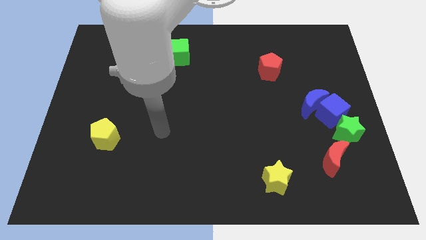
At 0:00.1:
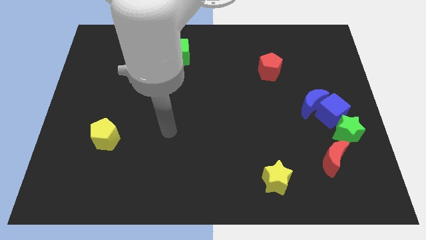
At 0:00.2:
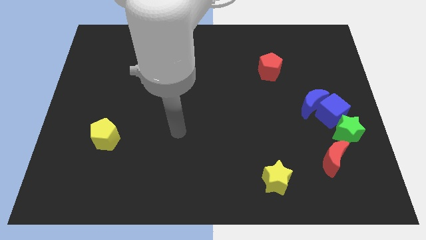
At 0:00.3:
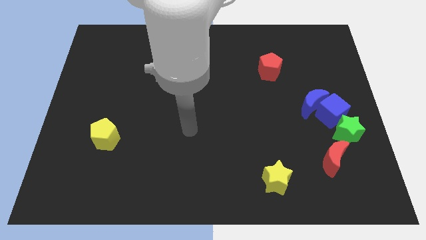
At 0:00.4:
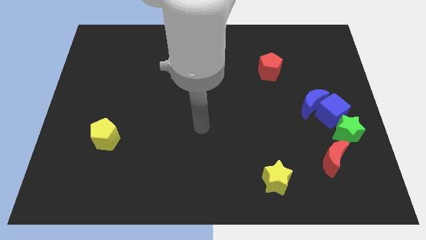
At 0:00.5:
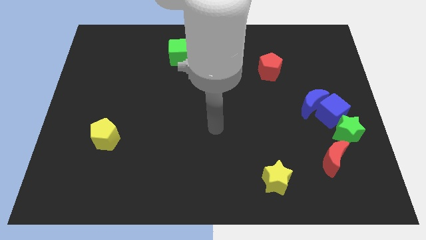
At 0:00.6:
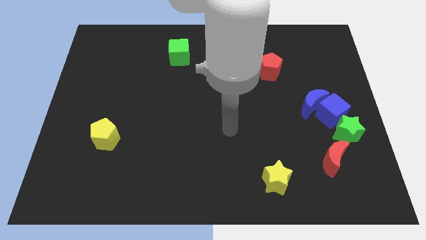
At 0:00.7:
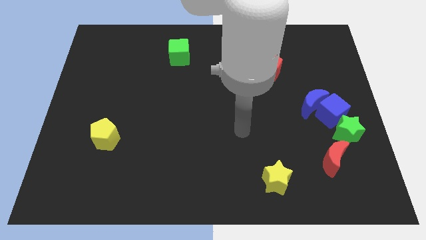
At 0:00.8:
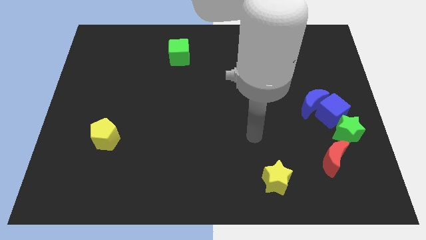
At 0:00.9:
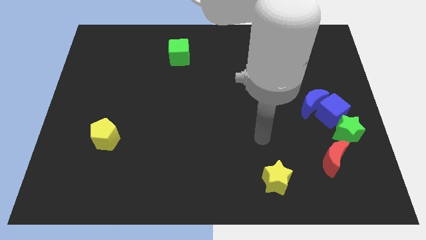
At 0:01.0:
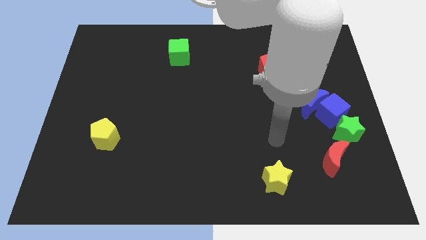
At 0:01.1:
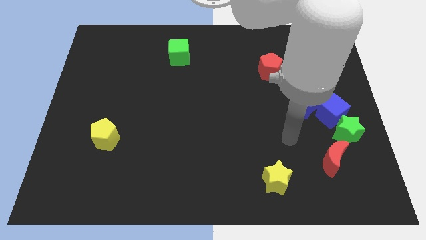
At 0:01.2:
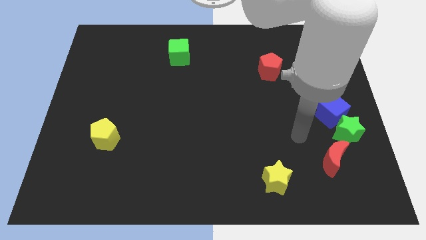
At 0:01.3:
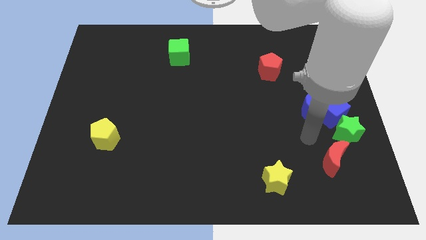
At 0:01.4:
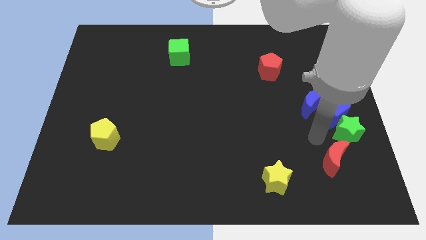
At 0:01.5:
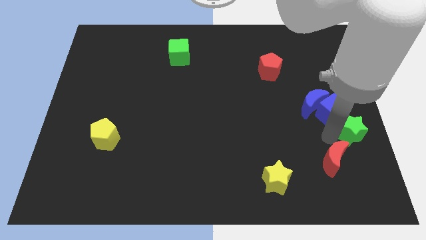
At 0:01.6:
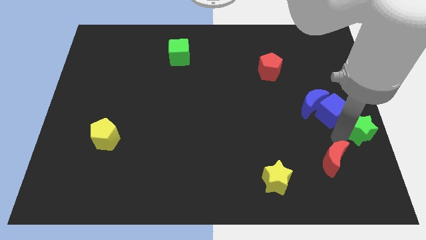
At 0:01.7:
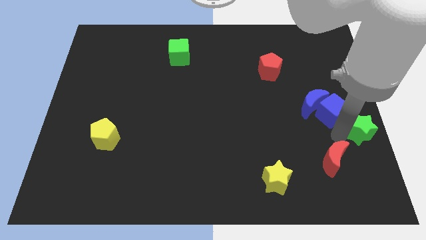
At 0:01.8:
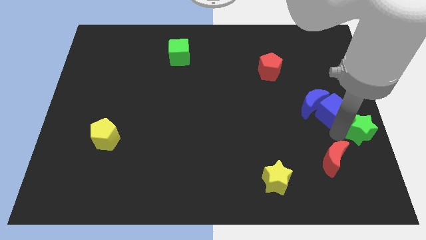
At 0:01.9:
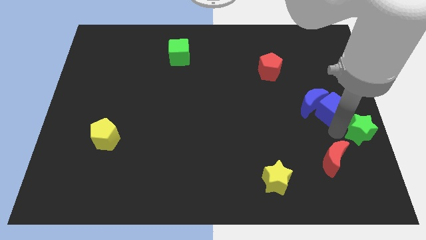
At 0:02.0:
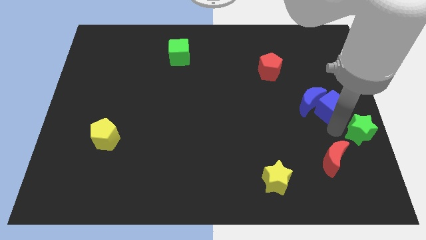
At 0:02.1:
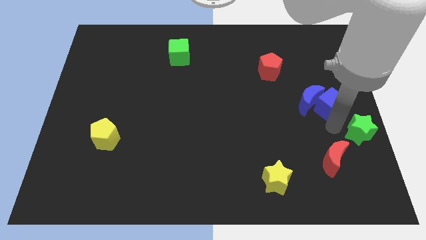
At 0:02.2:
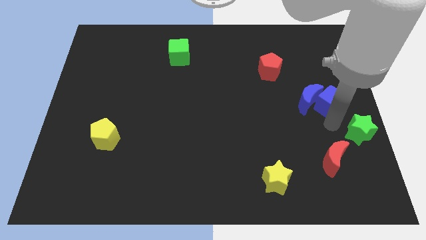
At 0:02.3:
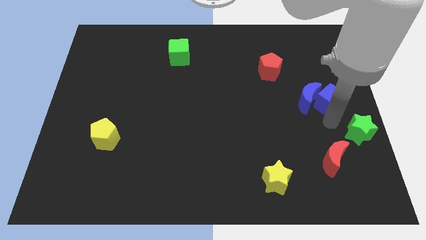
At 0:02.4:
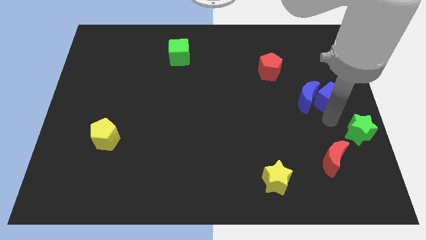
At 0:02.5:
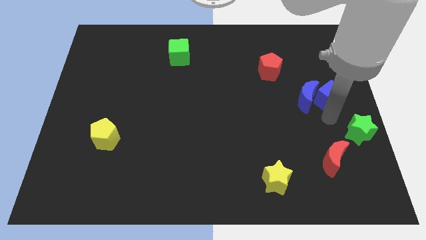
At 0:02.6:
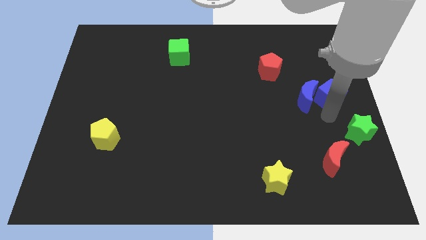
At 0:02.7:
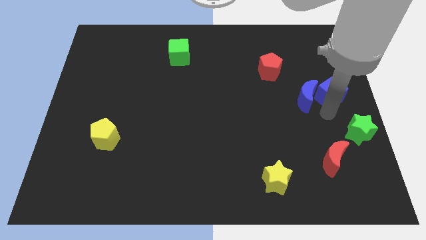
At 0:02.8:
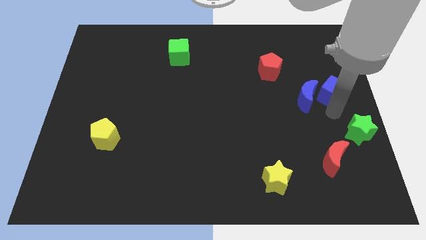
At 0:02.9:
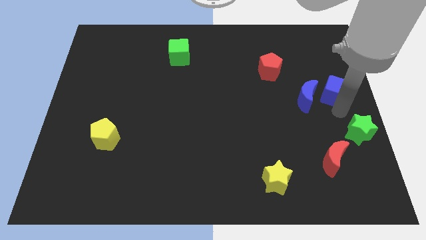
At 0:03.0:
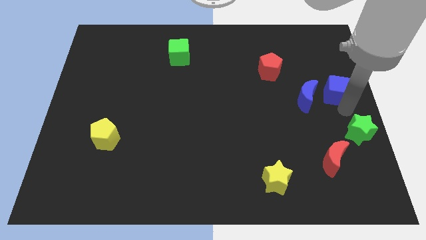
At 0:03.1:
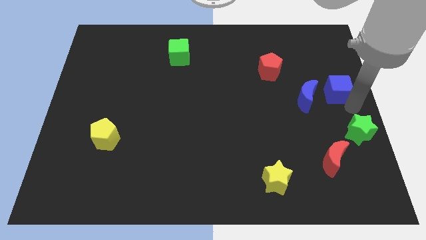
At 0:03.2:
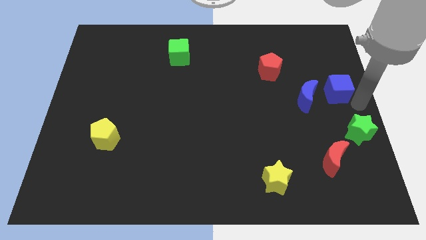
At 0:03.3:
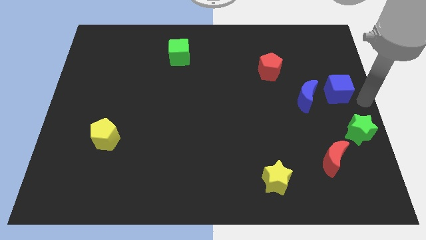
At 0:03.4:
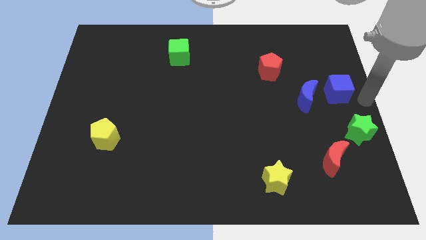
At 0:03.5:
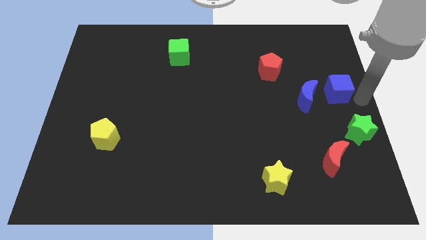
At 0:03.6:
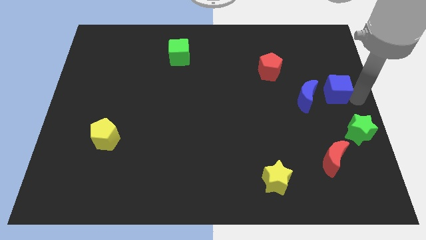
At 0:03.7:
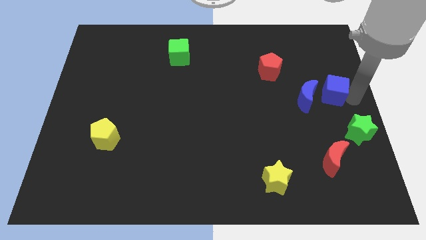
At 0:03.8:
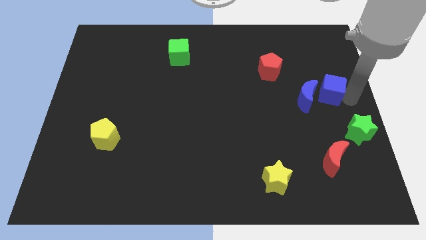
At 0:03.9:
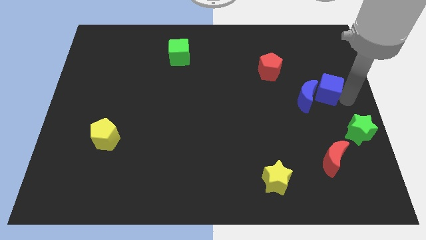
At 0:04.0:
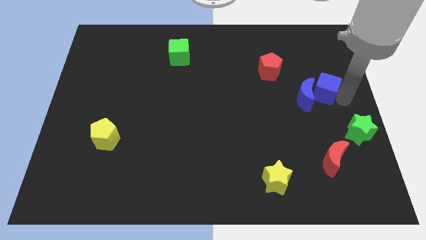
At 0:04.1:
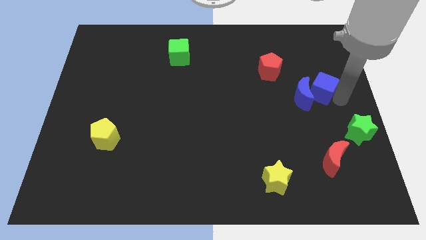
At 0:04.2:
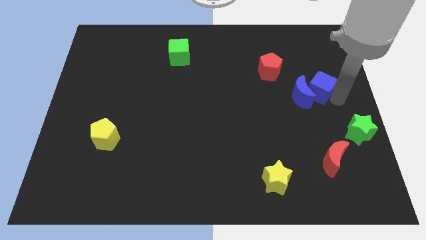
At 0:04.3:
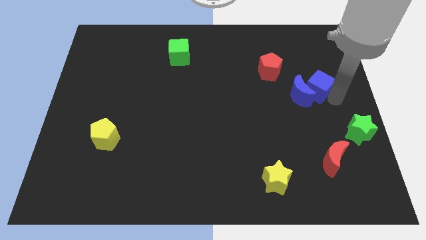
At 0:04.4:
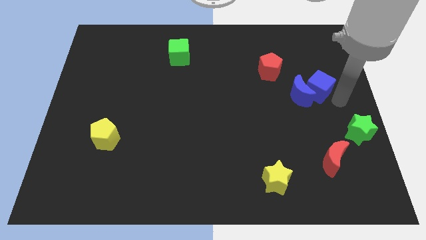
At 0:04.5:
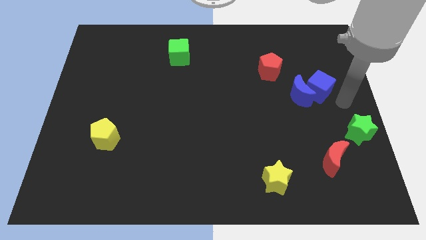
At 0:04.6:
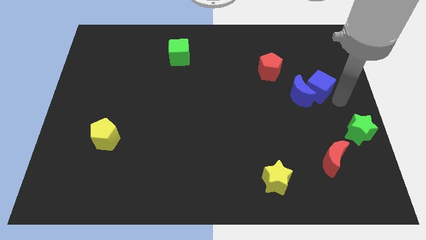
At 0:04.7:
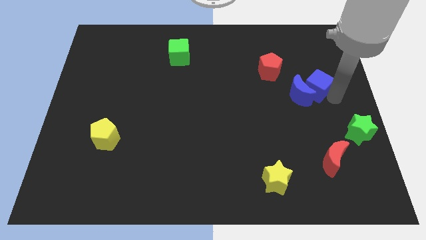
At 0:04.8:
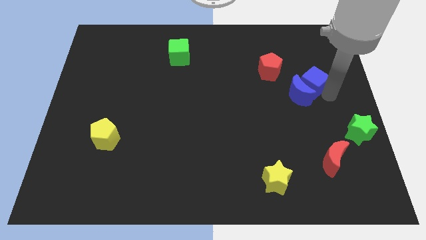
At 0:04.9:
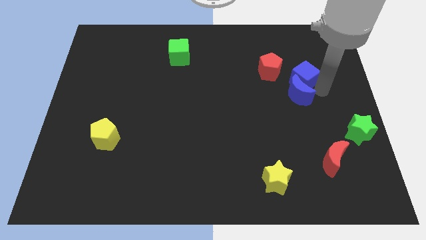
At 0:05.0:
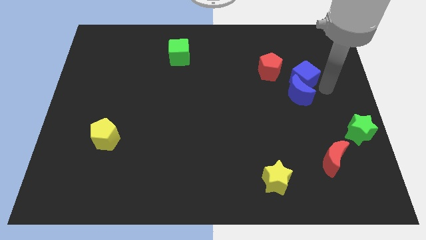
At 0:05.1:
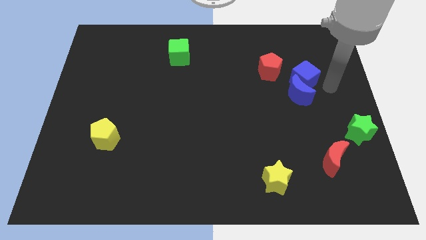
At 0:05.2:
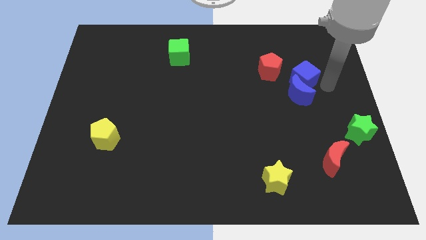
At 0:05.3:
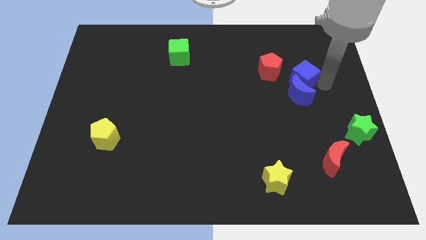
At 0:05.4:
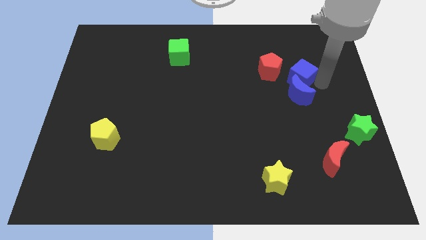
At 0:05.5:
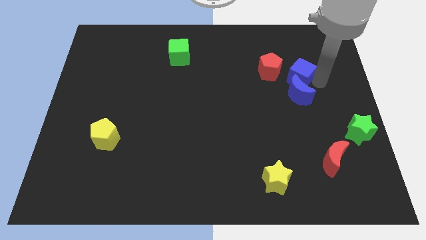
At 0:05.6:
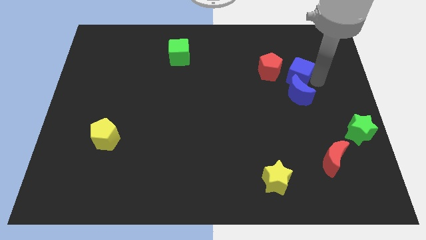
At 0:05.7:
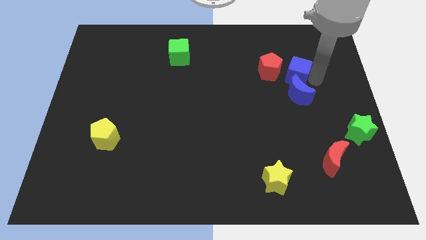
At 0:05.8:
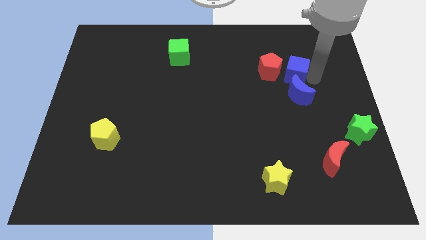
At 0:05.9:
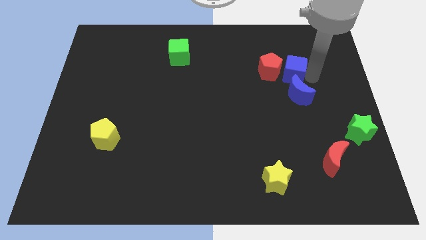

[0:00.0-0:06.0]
slide the blue cube close to the red pentagon

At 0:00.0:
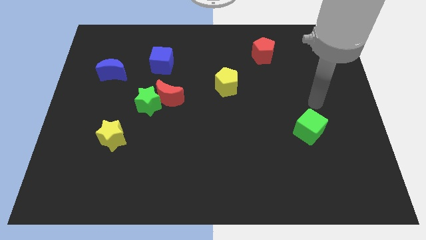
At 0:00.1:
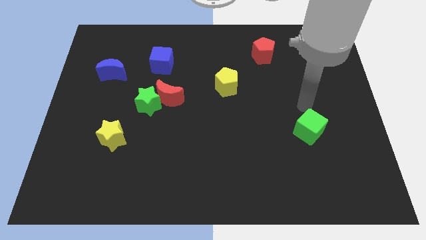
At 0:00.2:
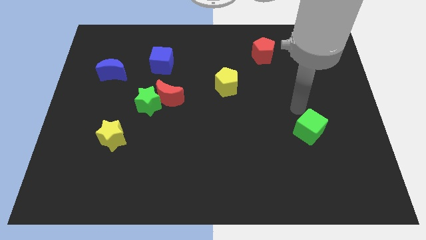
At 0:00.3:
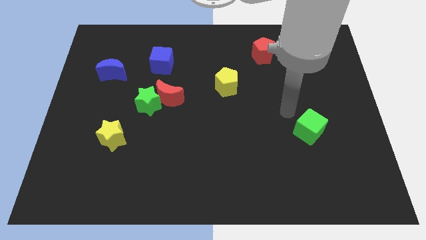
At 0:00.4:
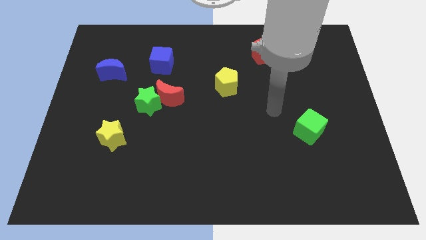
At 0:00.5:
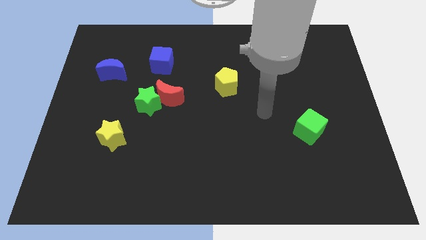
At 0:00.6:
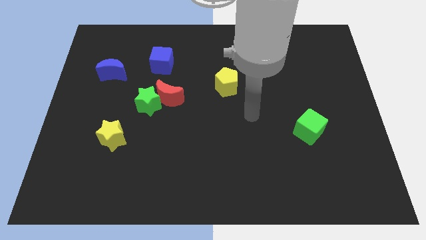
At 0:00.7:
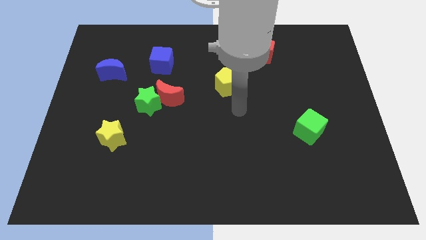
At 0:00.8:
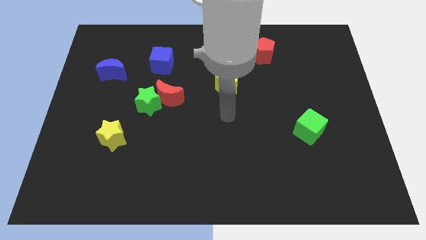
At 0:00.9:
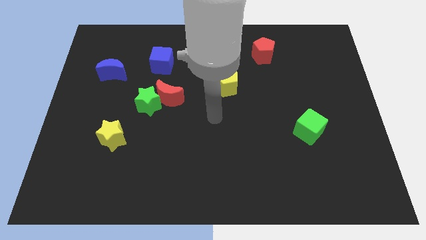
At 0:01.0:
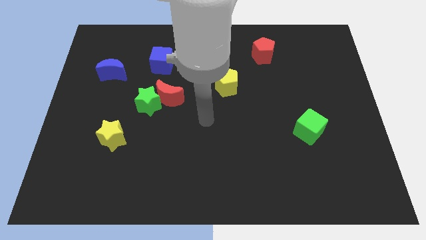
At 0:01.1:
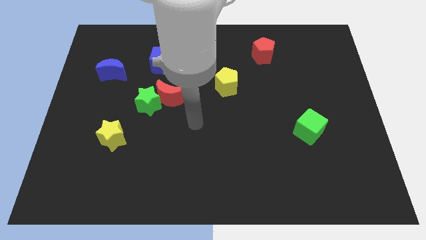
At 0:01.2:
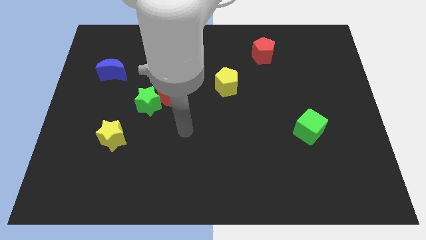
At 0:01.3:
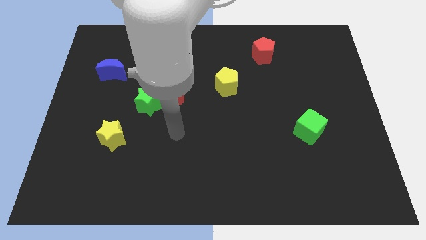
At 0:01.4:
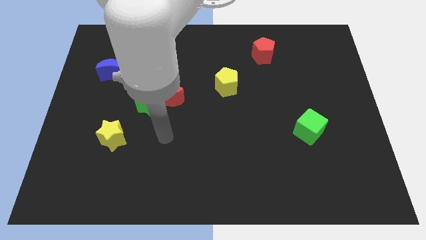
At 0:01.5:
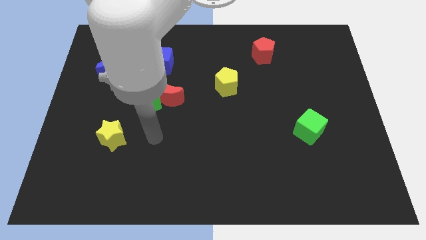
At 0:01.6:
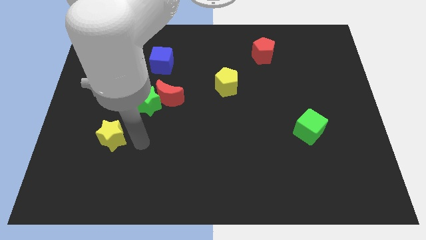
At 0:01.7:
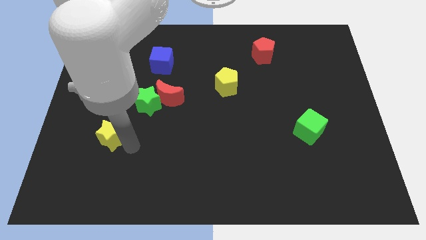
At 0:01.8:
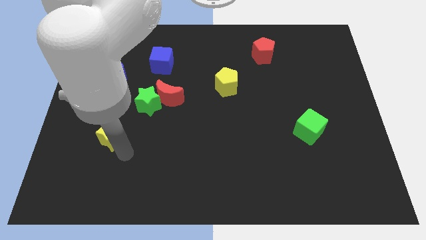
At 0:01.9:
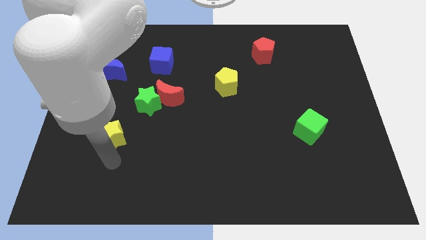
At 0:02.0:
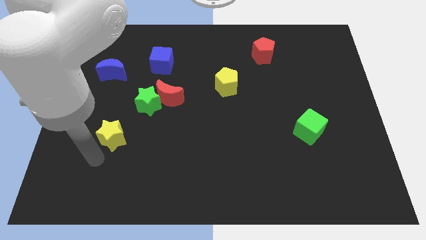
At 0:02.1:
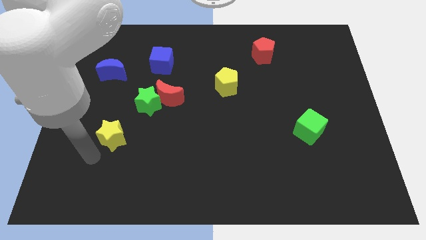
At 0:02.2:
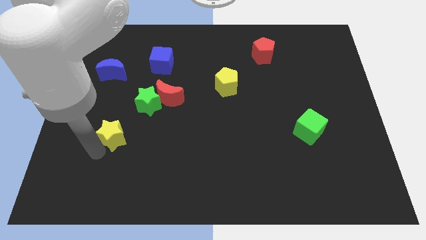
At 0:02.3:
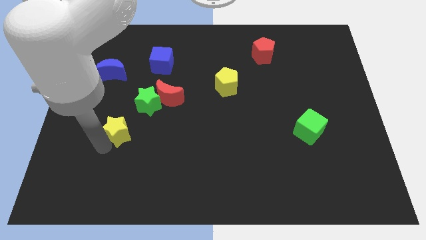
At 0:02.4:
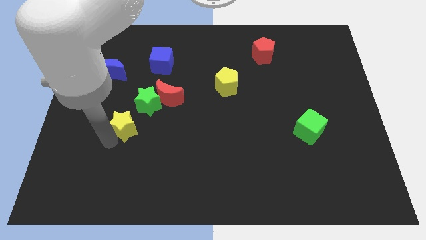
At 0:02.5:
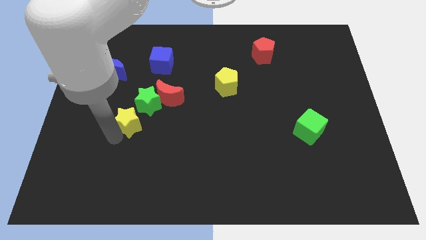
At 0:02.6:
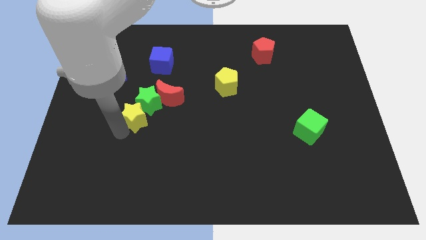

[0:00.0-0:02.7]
put the yellow star towards the green star
